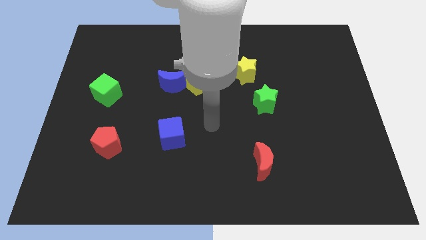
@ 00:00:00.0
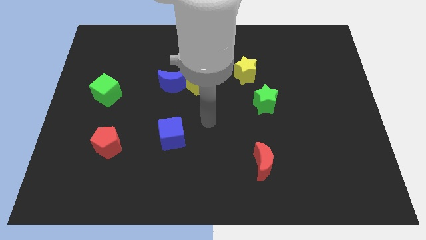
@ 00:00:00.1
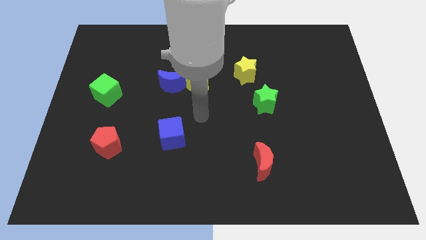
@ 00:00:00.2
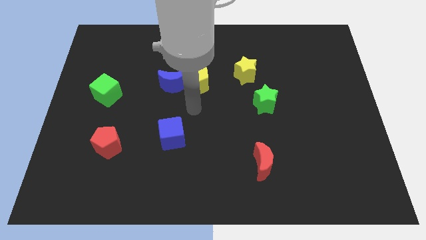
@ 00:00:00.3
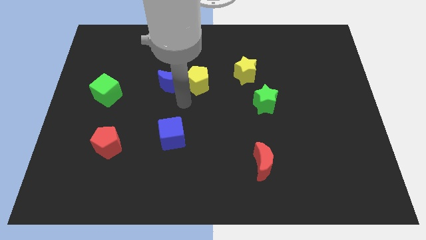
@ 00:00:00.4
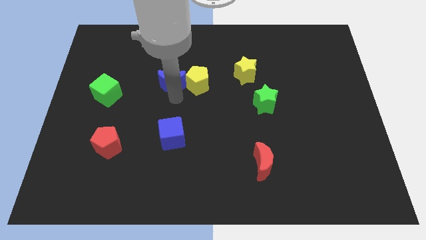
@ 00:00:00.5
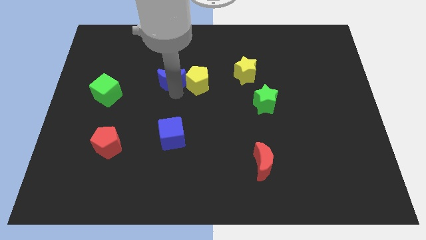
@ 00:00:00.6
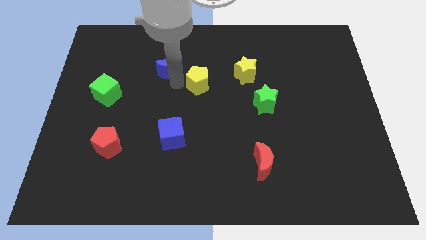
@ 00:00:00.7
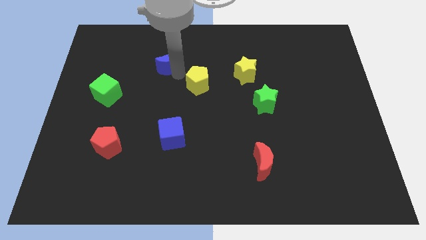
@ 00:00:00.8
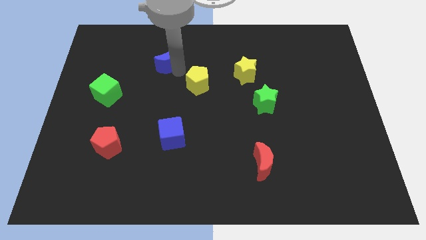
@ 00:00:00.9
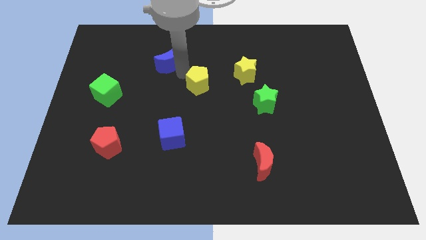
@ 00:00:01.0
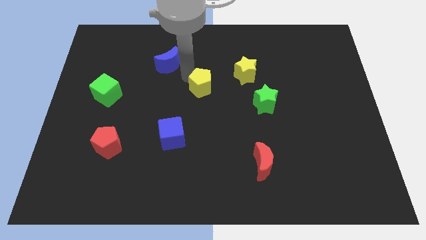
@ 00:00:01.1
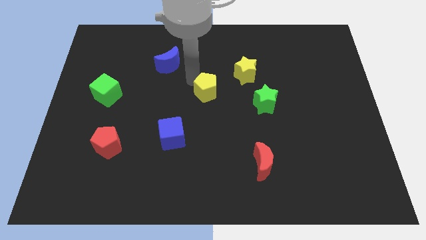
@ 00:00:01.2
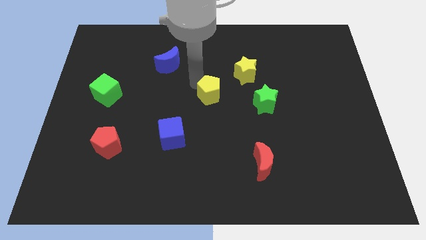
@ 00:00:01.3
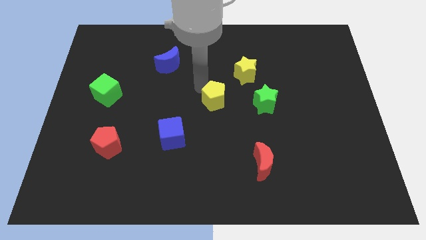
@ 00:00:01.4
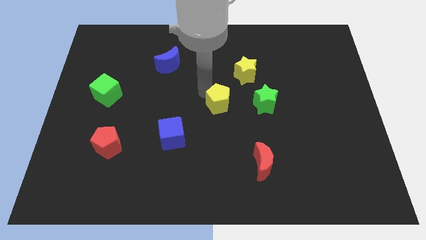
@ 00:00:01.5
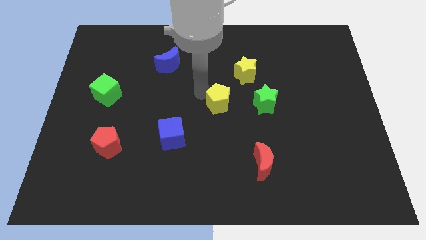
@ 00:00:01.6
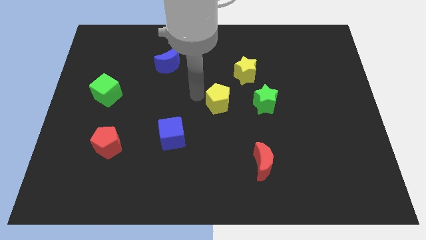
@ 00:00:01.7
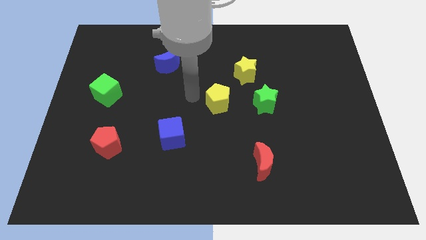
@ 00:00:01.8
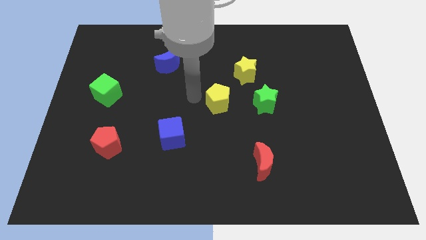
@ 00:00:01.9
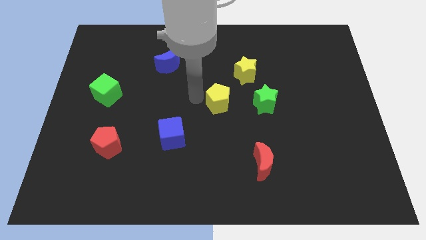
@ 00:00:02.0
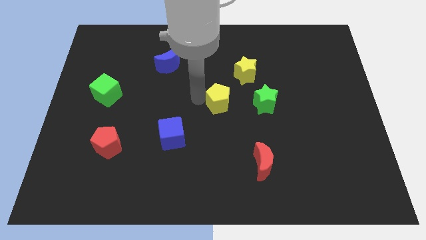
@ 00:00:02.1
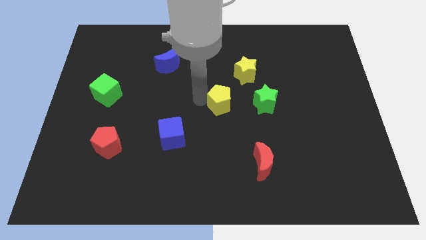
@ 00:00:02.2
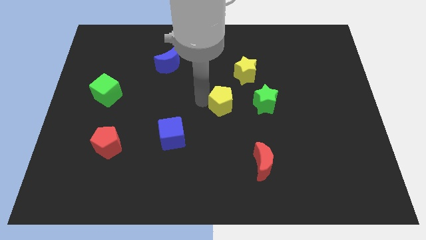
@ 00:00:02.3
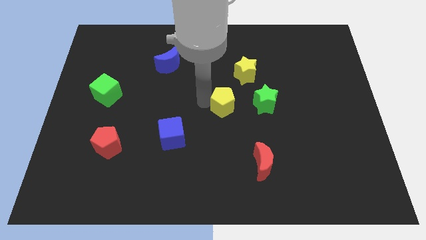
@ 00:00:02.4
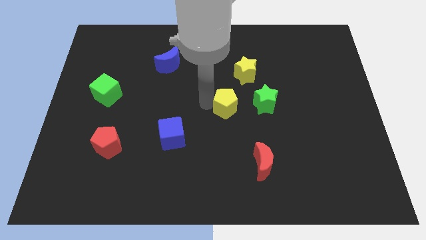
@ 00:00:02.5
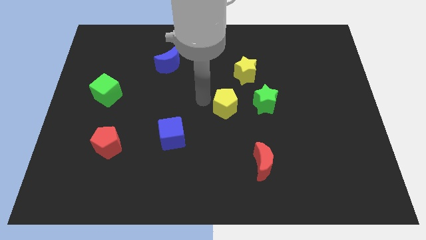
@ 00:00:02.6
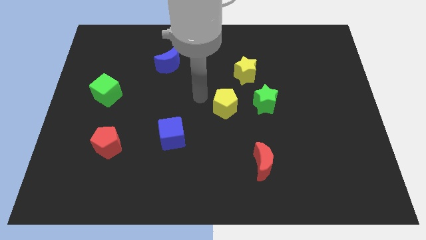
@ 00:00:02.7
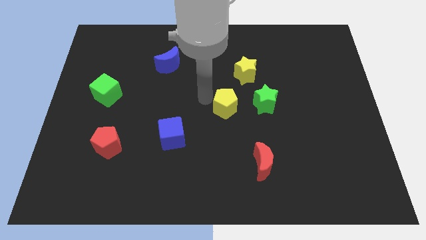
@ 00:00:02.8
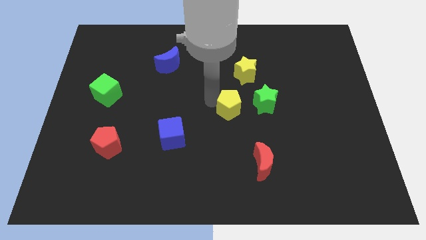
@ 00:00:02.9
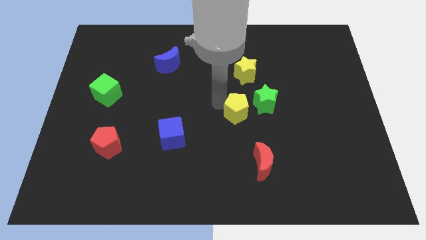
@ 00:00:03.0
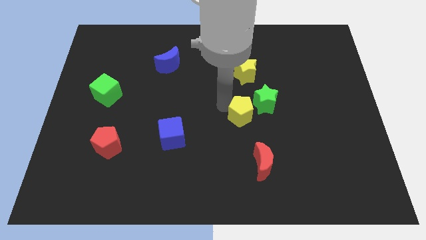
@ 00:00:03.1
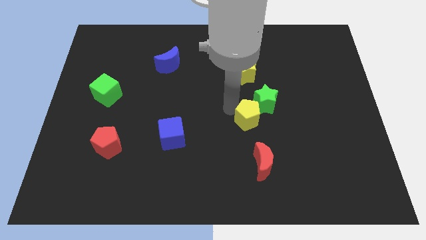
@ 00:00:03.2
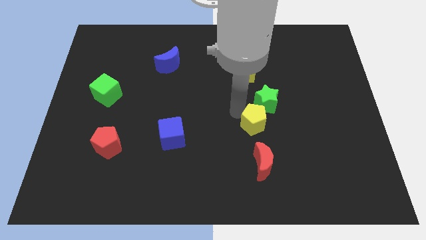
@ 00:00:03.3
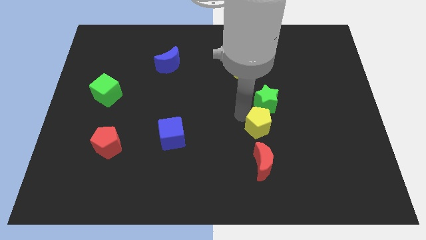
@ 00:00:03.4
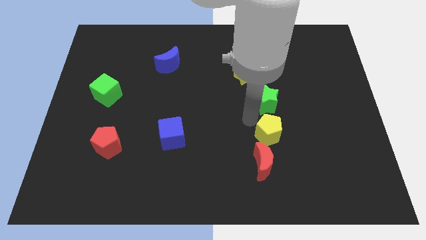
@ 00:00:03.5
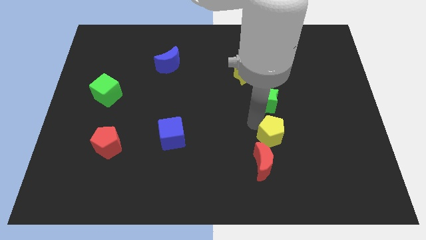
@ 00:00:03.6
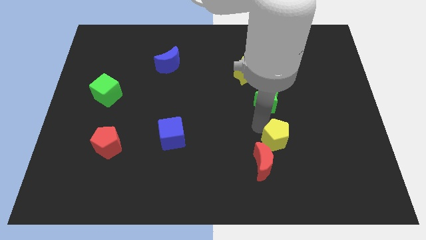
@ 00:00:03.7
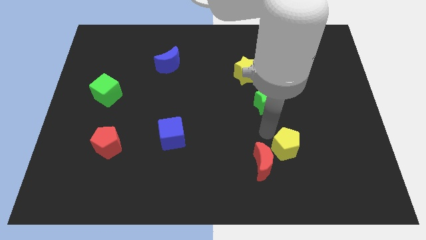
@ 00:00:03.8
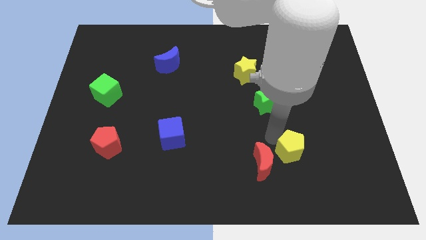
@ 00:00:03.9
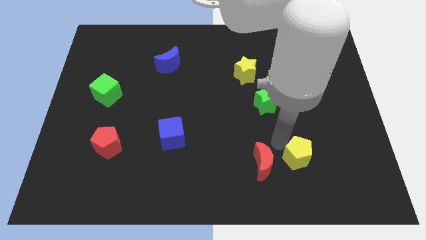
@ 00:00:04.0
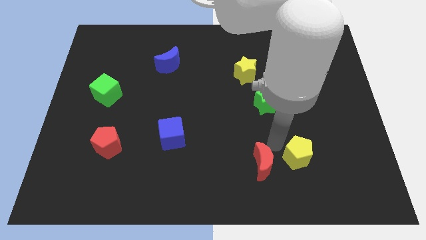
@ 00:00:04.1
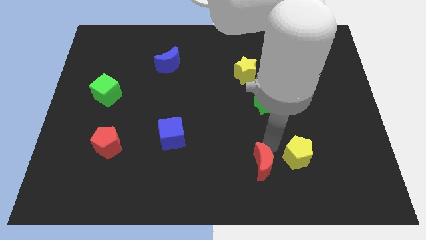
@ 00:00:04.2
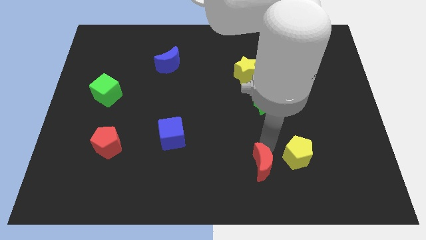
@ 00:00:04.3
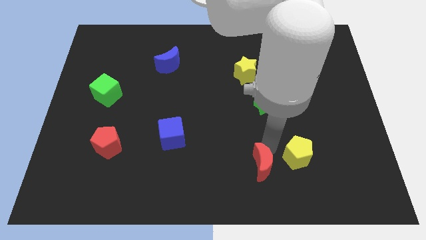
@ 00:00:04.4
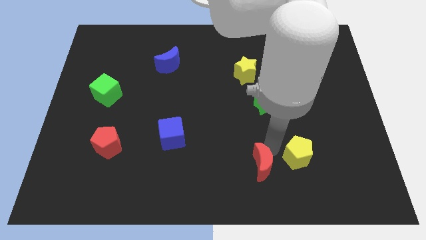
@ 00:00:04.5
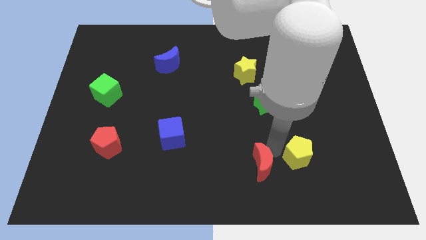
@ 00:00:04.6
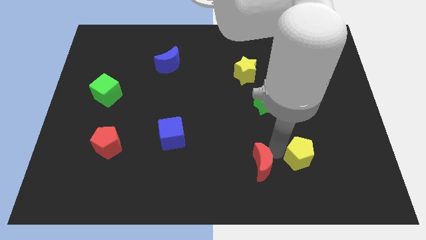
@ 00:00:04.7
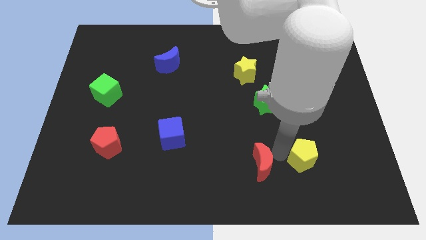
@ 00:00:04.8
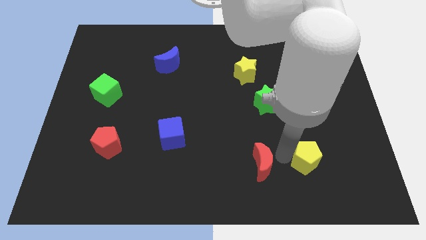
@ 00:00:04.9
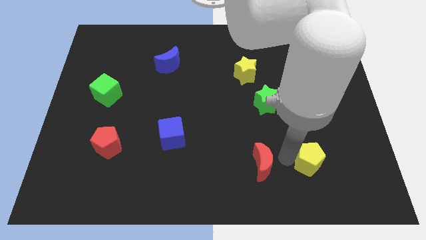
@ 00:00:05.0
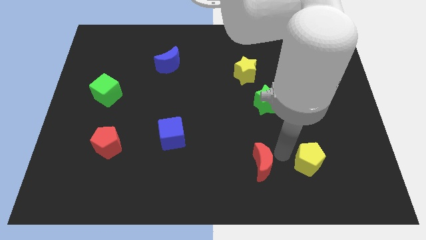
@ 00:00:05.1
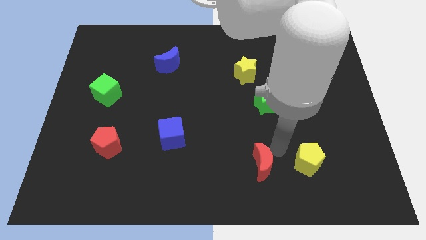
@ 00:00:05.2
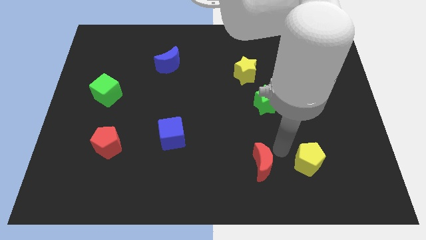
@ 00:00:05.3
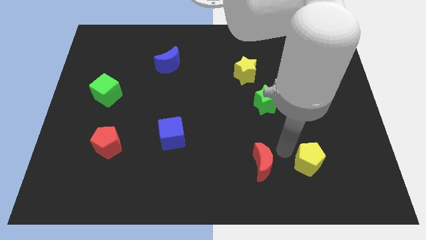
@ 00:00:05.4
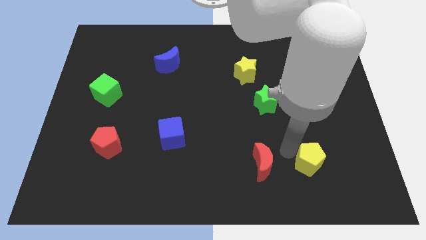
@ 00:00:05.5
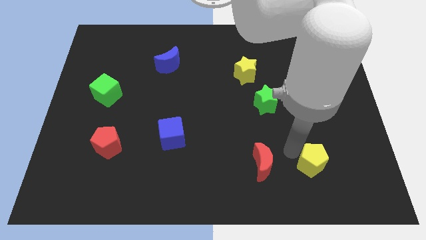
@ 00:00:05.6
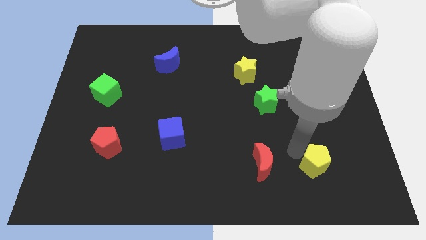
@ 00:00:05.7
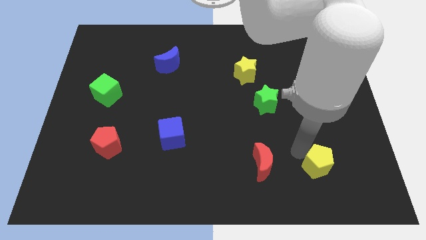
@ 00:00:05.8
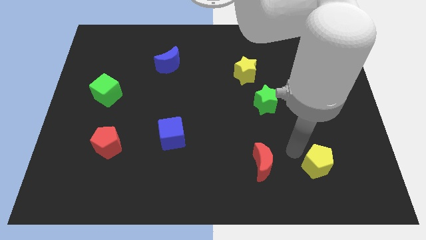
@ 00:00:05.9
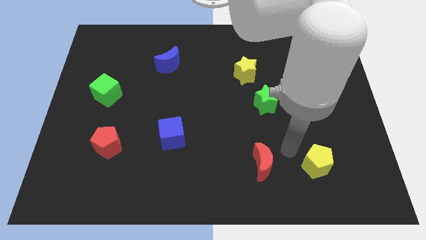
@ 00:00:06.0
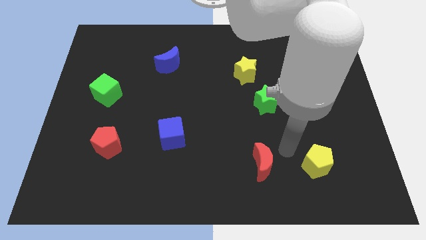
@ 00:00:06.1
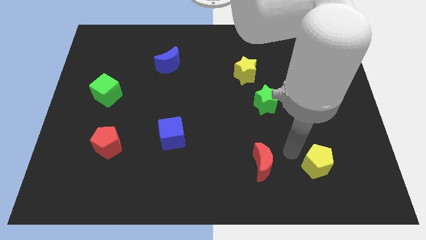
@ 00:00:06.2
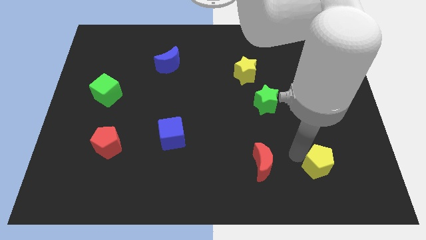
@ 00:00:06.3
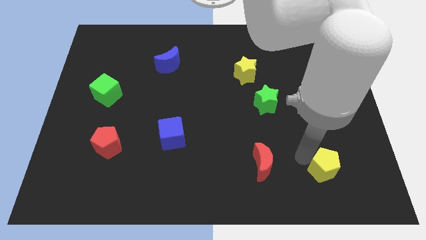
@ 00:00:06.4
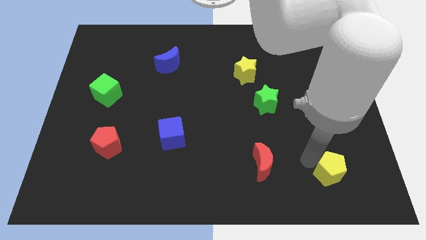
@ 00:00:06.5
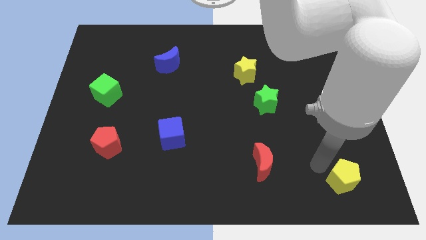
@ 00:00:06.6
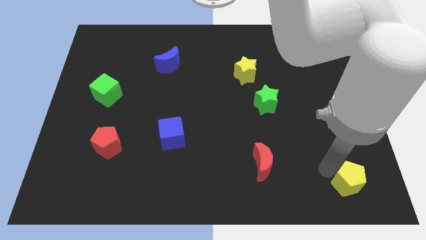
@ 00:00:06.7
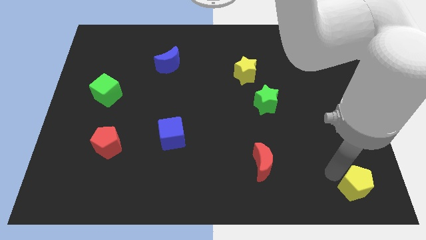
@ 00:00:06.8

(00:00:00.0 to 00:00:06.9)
move the yellow pentagon to the lower right corner
